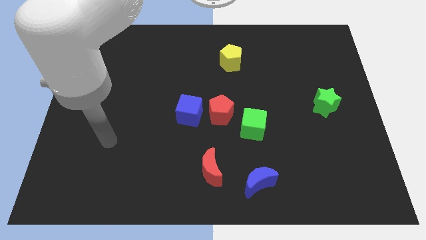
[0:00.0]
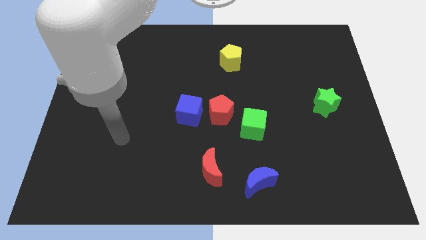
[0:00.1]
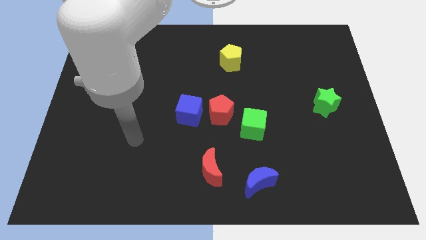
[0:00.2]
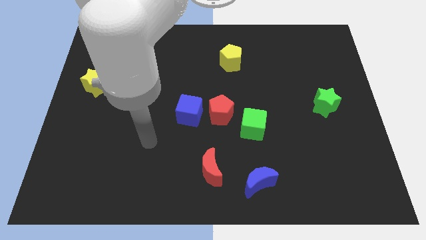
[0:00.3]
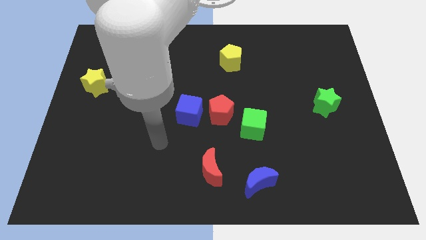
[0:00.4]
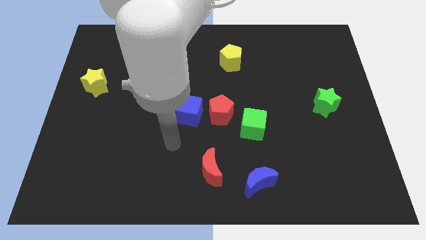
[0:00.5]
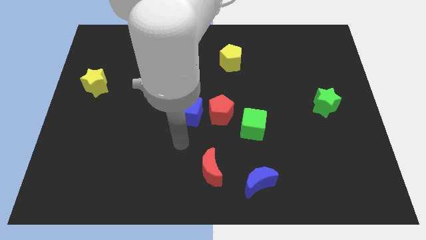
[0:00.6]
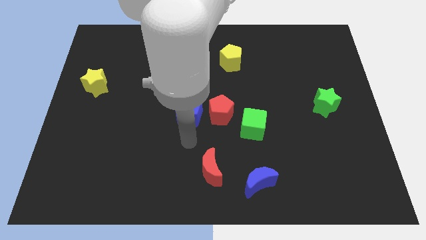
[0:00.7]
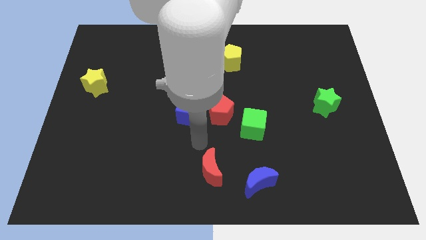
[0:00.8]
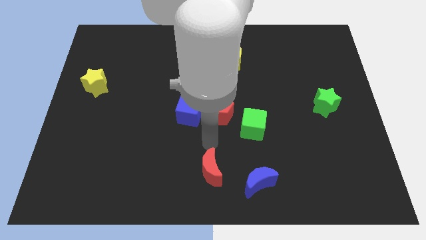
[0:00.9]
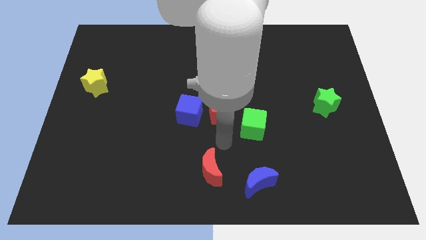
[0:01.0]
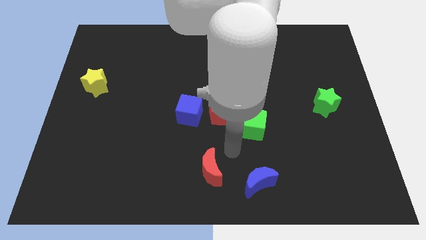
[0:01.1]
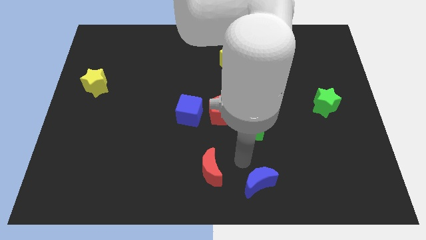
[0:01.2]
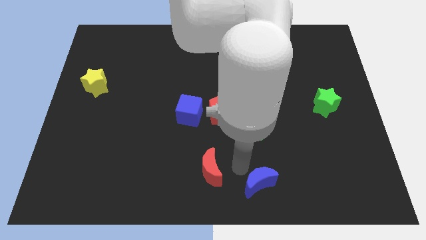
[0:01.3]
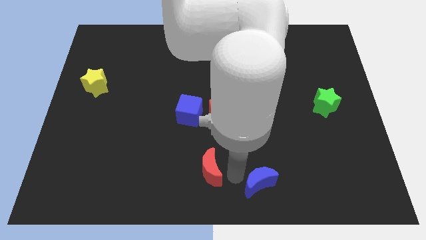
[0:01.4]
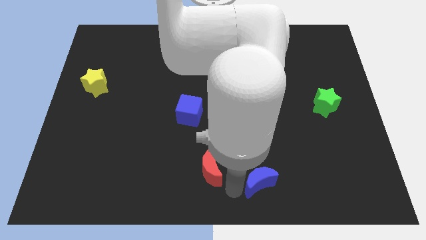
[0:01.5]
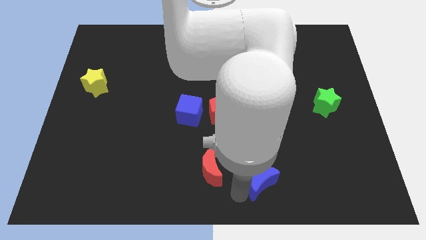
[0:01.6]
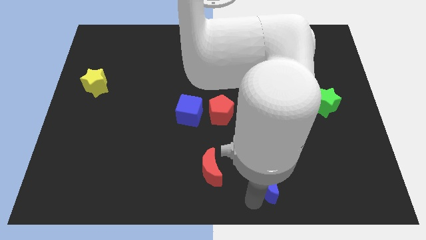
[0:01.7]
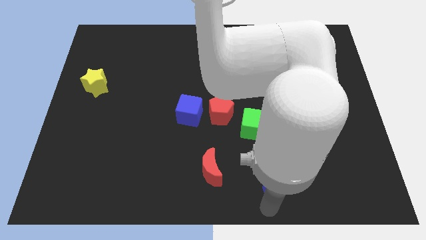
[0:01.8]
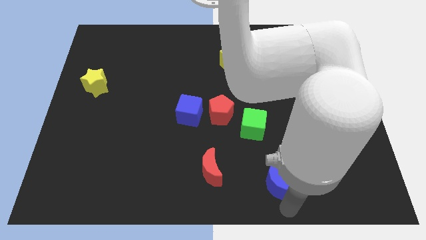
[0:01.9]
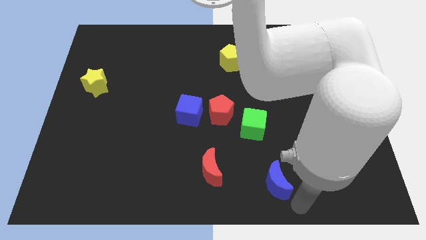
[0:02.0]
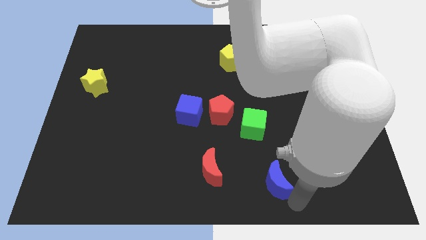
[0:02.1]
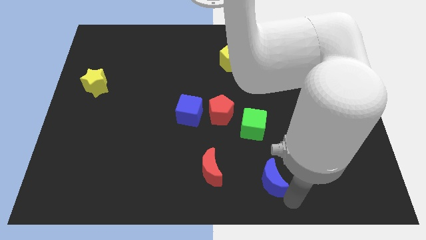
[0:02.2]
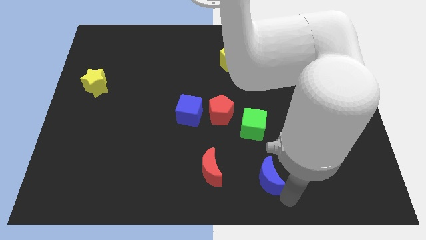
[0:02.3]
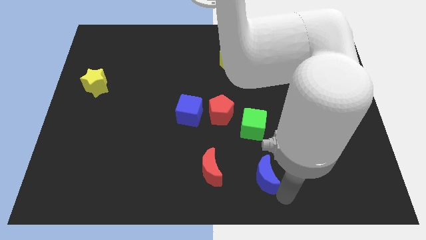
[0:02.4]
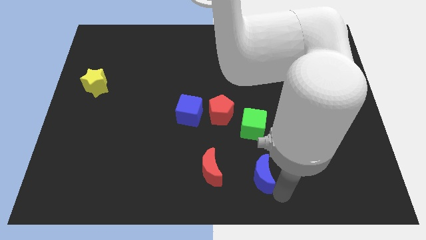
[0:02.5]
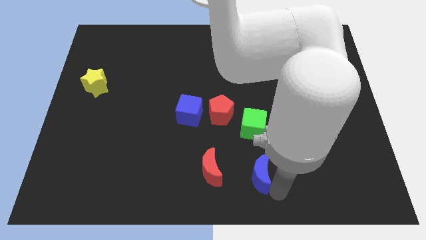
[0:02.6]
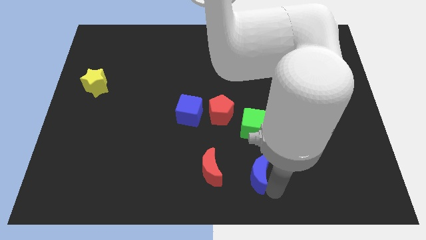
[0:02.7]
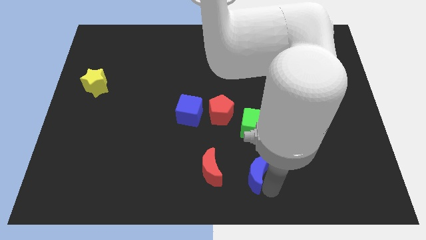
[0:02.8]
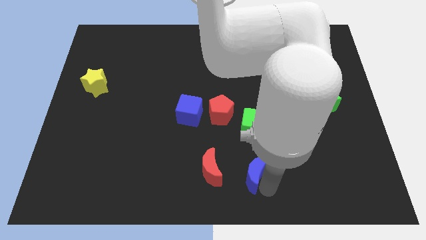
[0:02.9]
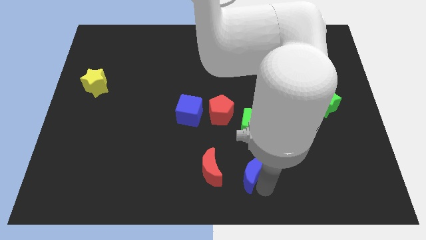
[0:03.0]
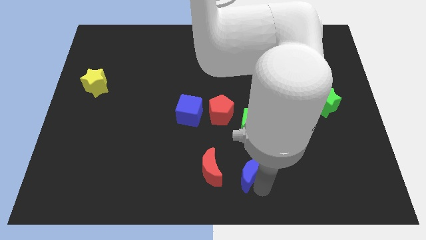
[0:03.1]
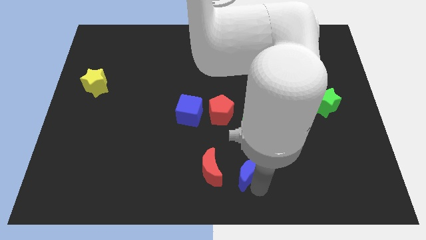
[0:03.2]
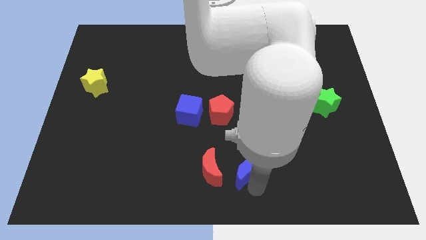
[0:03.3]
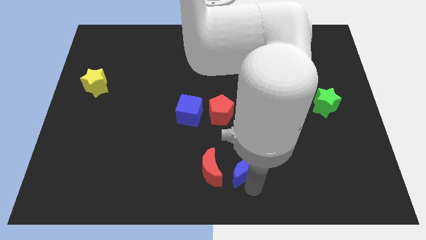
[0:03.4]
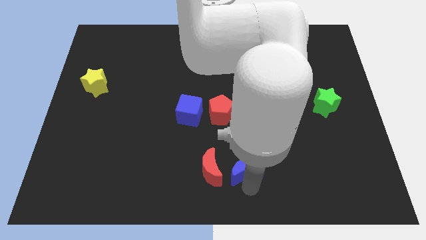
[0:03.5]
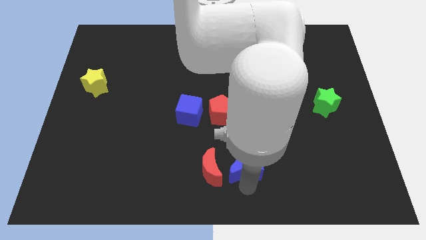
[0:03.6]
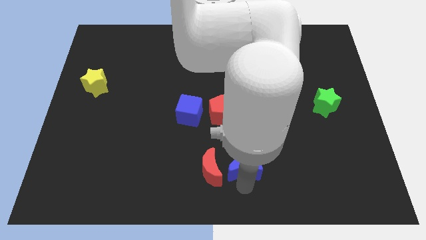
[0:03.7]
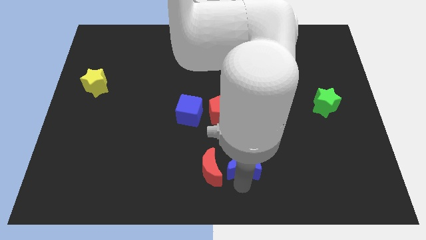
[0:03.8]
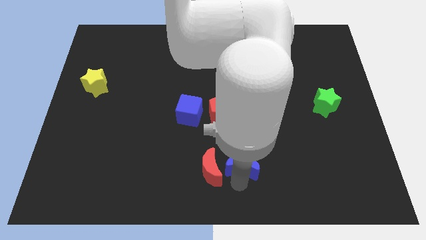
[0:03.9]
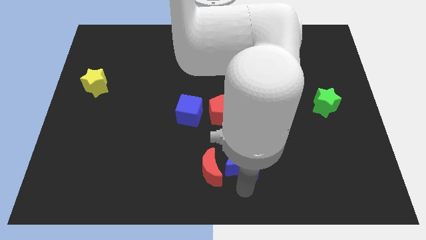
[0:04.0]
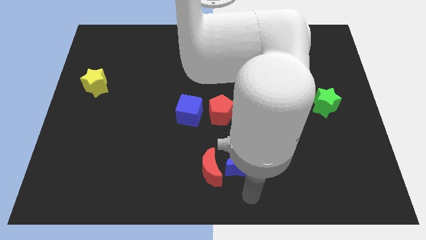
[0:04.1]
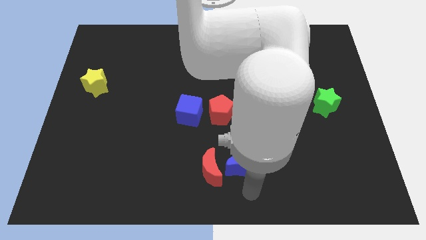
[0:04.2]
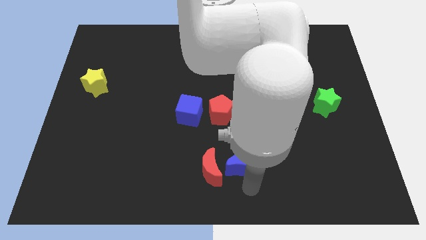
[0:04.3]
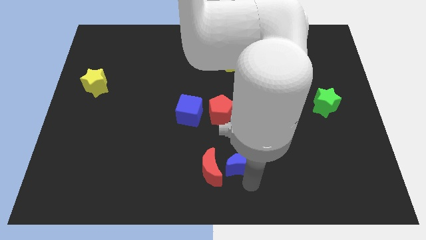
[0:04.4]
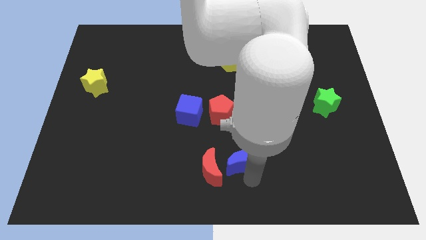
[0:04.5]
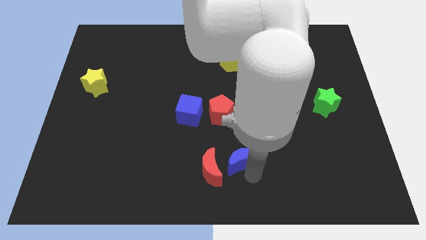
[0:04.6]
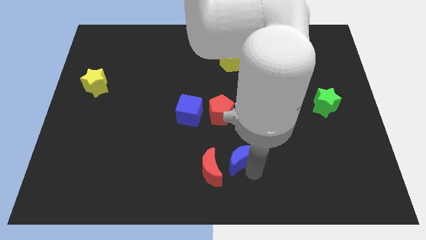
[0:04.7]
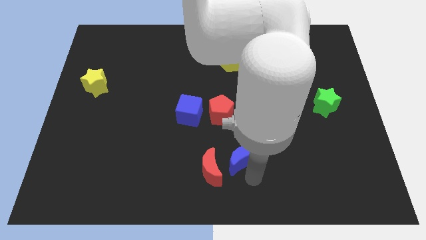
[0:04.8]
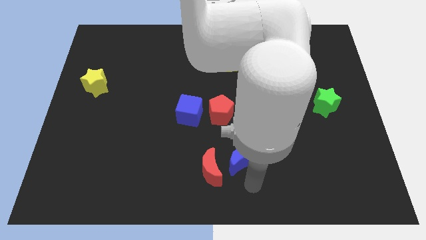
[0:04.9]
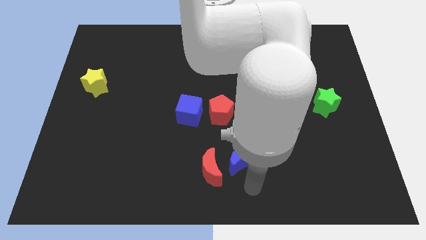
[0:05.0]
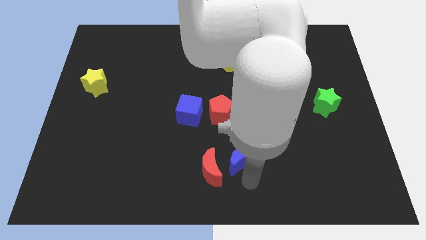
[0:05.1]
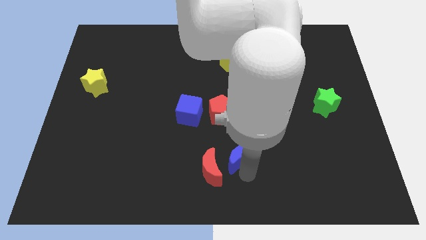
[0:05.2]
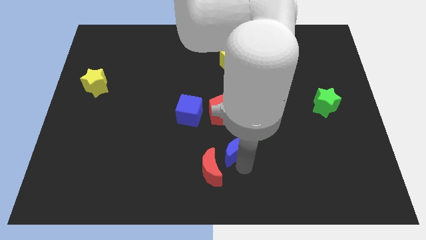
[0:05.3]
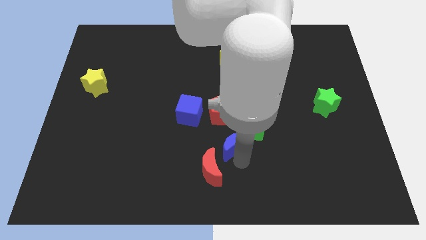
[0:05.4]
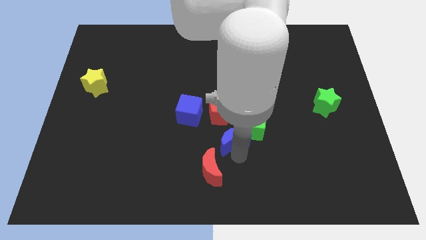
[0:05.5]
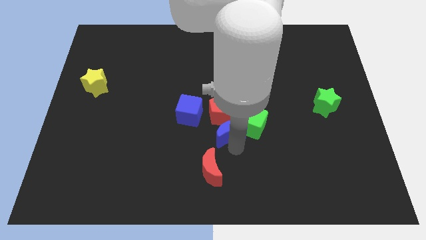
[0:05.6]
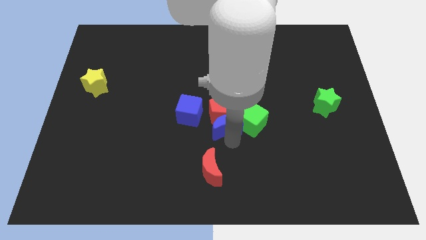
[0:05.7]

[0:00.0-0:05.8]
move the blue moon next to the red pentagon

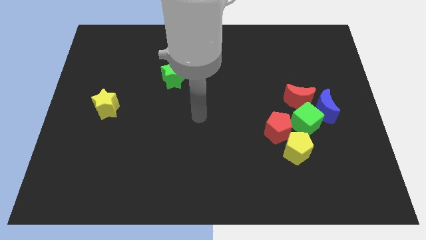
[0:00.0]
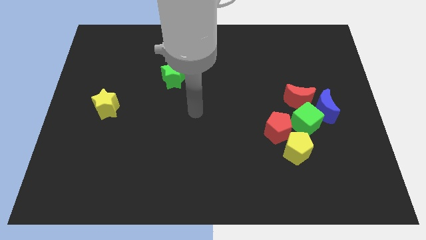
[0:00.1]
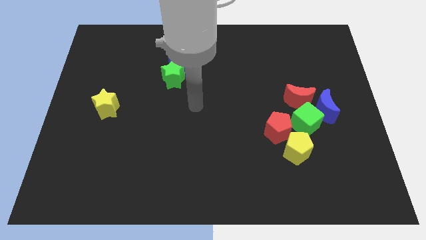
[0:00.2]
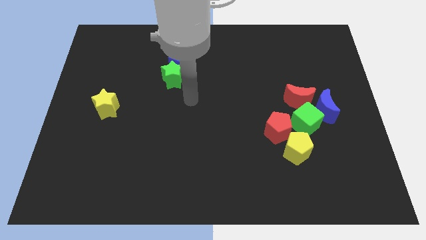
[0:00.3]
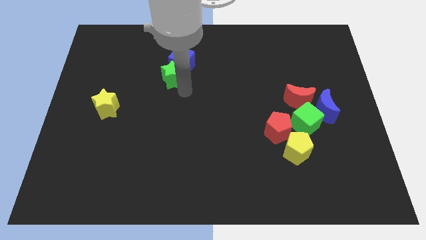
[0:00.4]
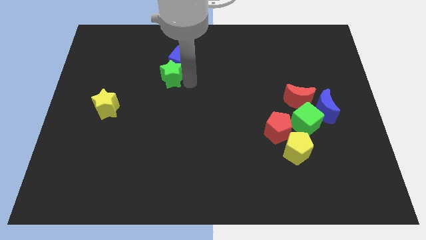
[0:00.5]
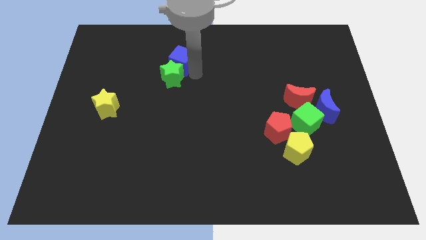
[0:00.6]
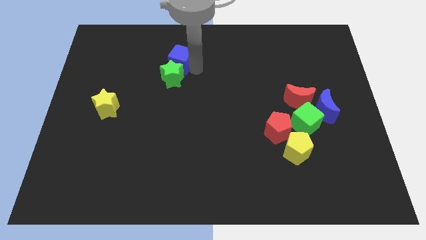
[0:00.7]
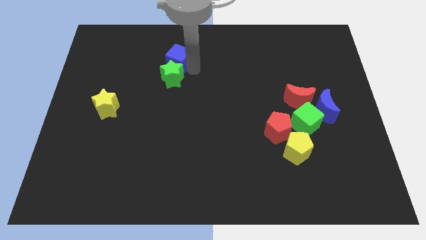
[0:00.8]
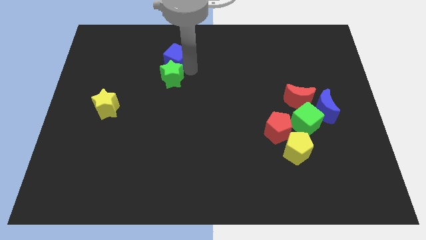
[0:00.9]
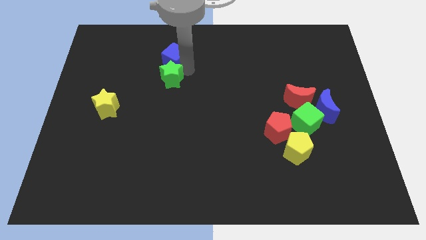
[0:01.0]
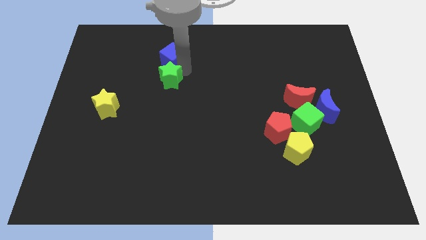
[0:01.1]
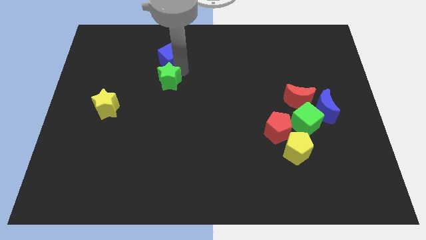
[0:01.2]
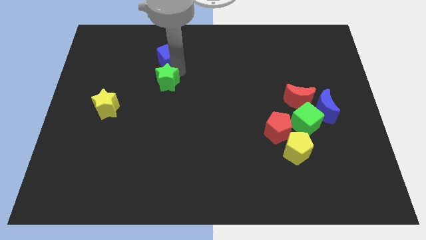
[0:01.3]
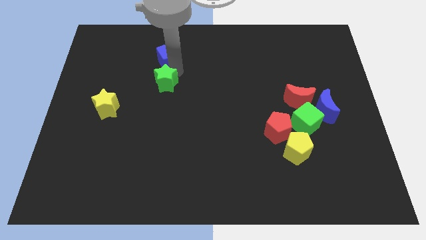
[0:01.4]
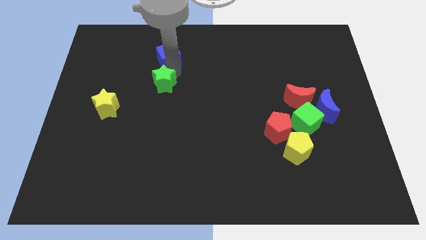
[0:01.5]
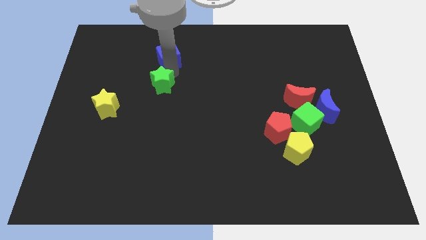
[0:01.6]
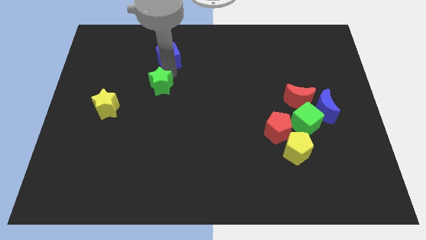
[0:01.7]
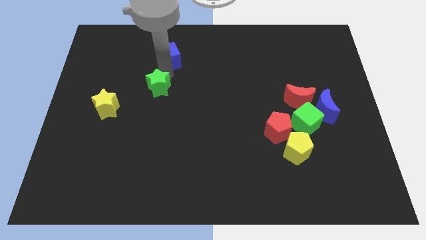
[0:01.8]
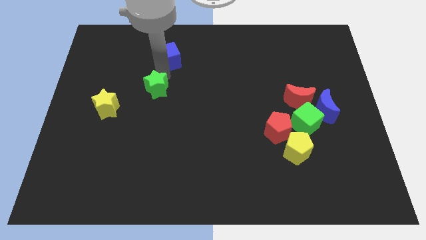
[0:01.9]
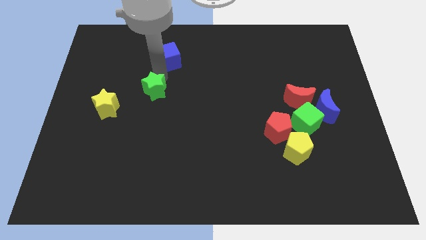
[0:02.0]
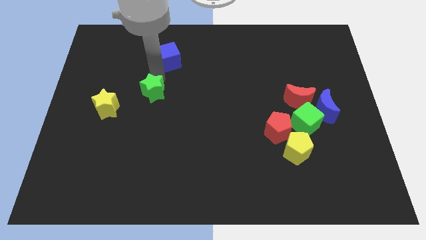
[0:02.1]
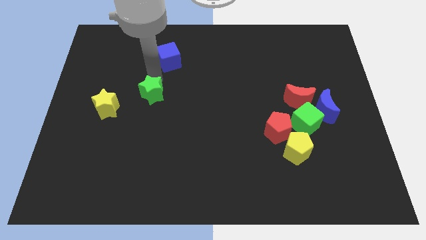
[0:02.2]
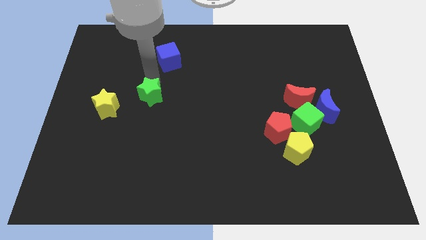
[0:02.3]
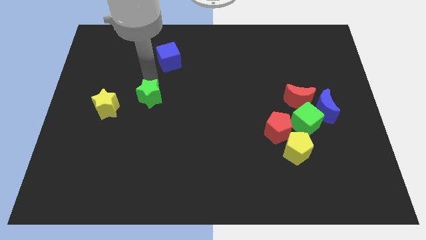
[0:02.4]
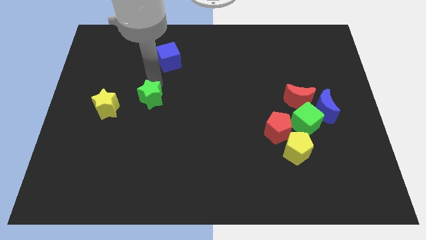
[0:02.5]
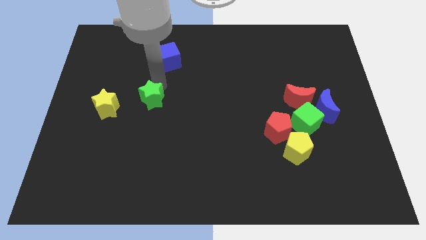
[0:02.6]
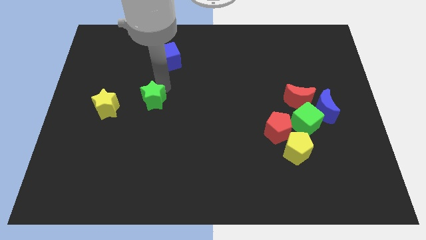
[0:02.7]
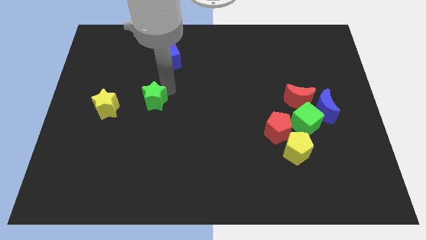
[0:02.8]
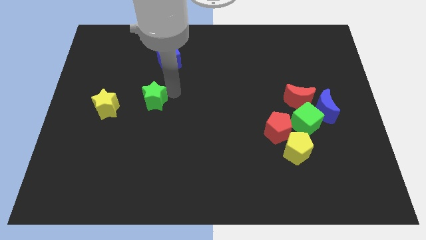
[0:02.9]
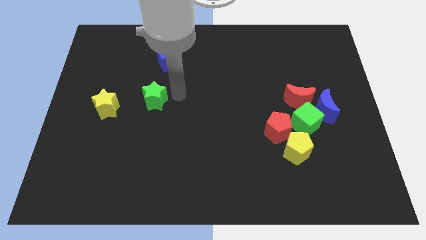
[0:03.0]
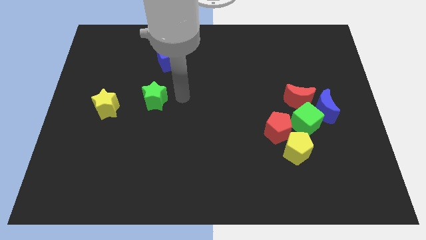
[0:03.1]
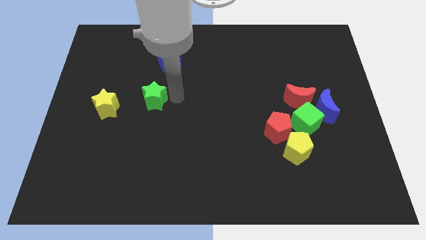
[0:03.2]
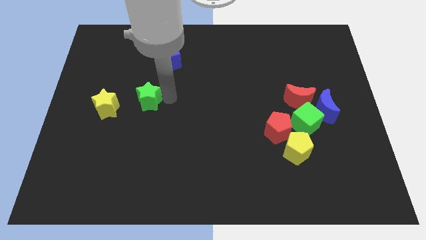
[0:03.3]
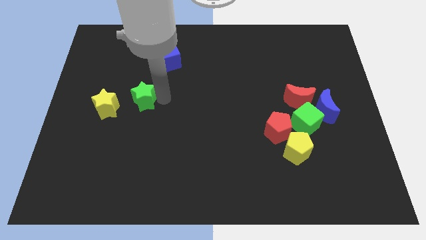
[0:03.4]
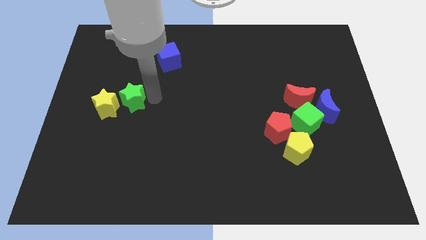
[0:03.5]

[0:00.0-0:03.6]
move the green star next to the yellow star
